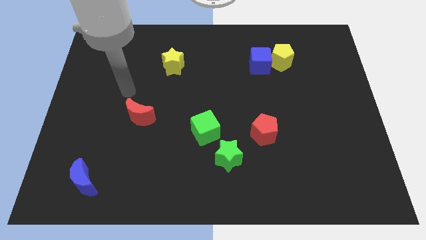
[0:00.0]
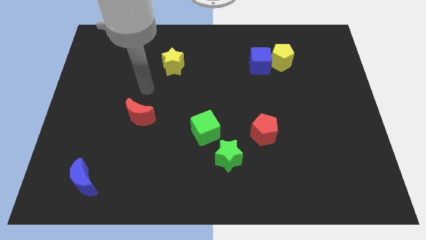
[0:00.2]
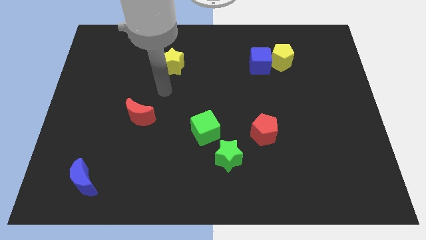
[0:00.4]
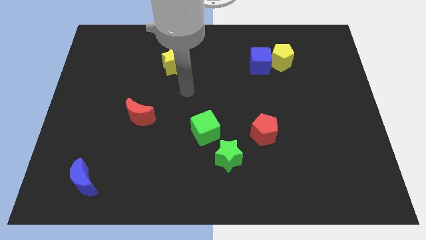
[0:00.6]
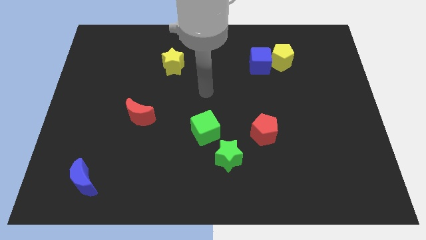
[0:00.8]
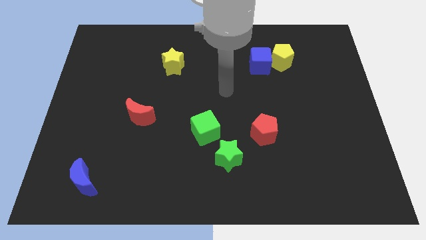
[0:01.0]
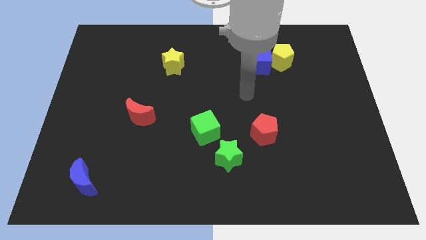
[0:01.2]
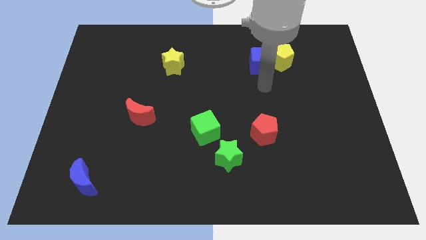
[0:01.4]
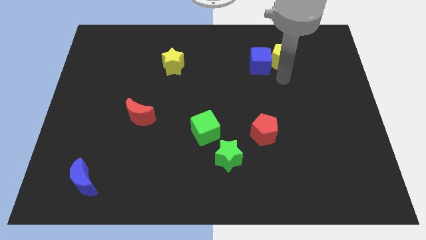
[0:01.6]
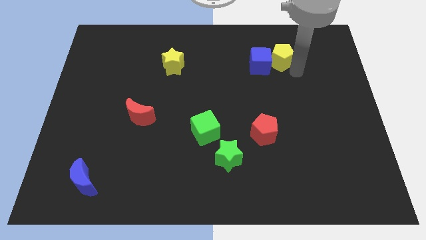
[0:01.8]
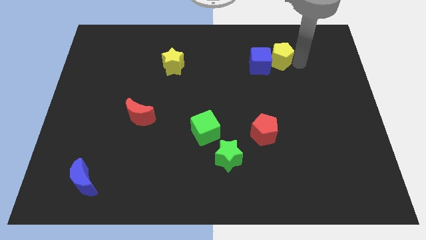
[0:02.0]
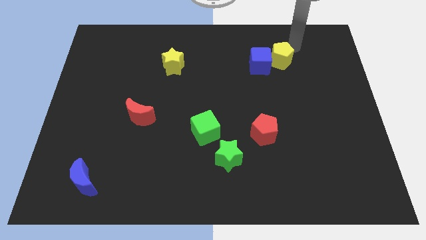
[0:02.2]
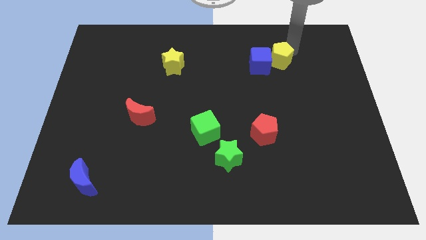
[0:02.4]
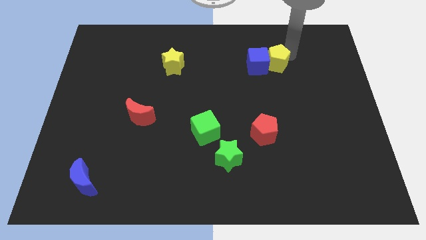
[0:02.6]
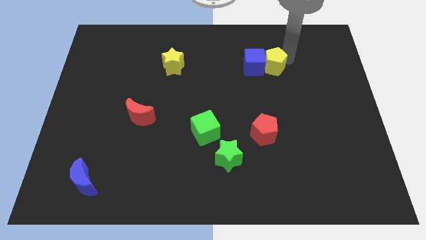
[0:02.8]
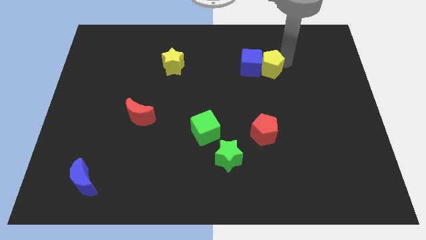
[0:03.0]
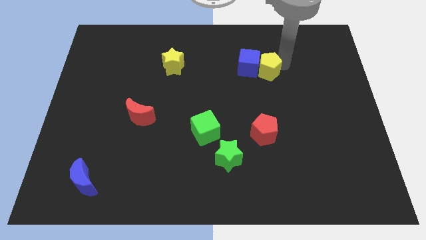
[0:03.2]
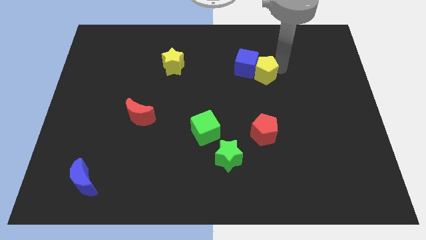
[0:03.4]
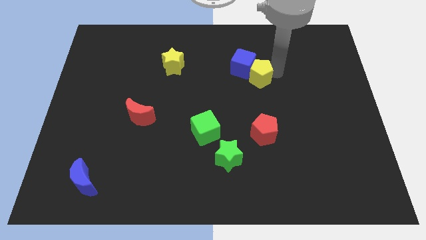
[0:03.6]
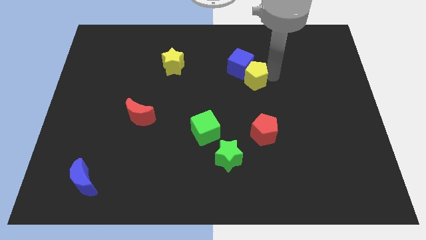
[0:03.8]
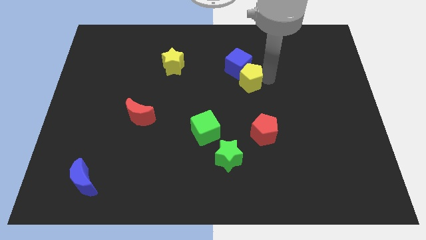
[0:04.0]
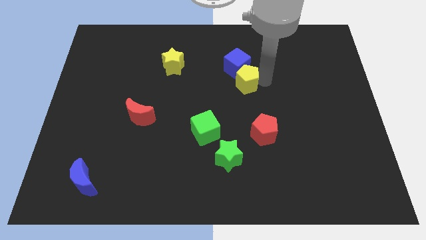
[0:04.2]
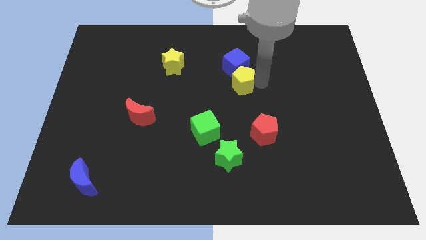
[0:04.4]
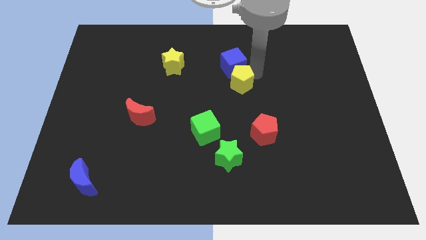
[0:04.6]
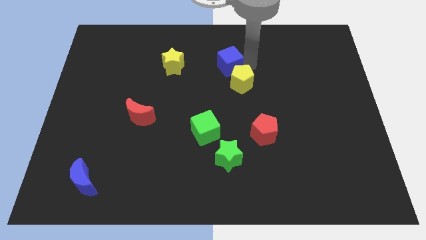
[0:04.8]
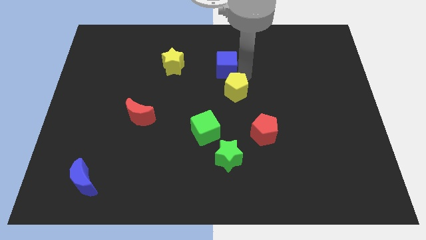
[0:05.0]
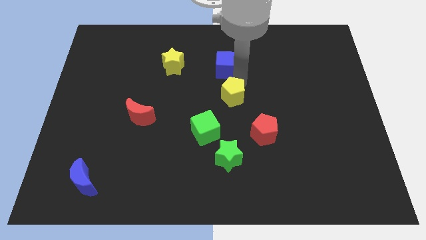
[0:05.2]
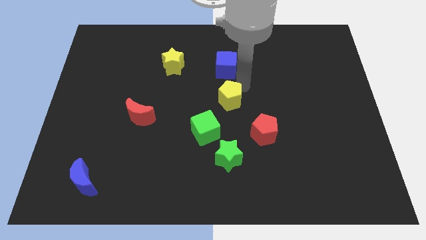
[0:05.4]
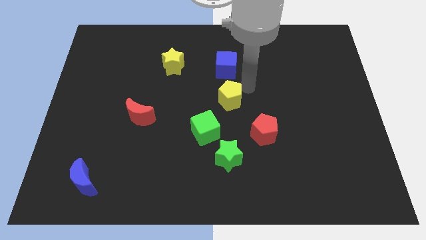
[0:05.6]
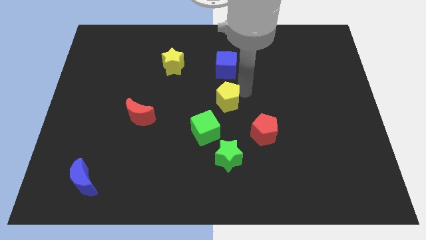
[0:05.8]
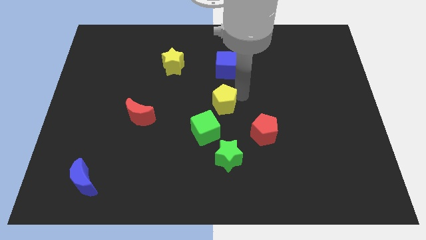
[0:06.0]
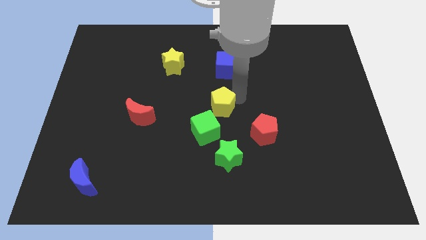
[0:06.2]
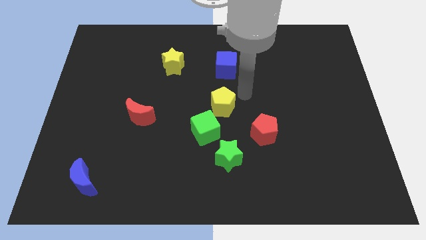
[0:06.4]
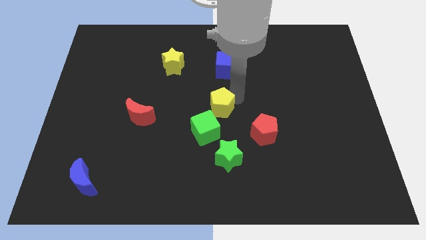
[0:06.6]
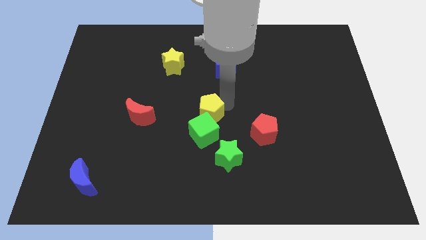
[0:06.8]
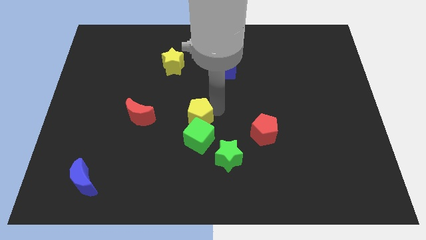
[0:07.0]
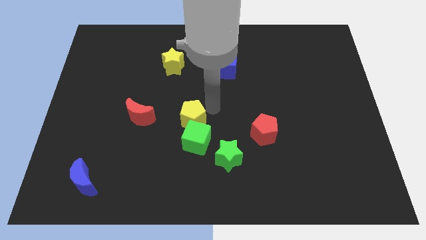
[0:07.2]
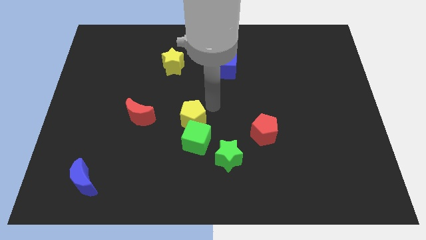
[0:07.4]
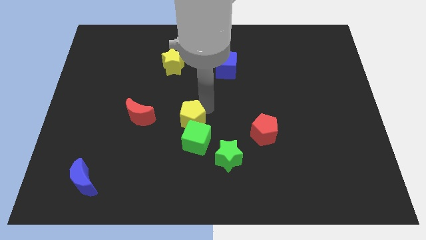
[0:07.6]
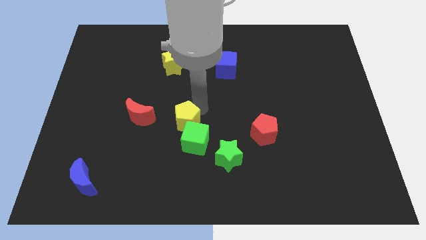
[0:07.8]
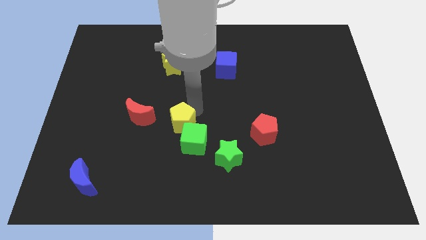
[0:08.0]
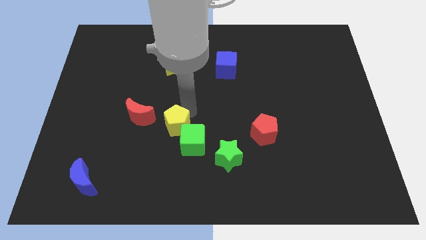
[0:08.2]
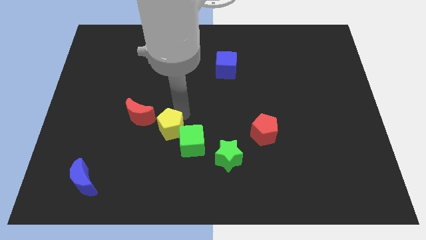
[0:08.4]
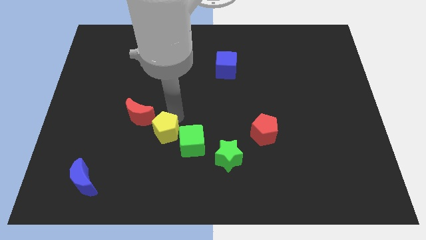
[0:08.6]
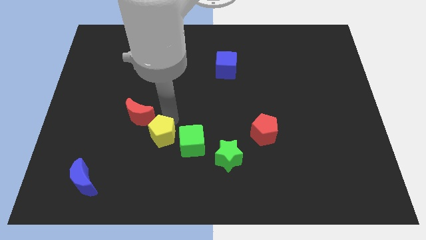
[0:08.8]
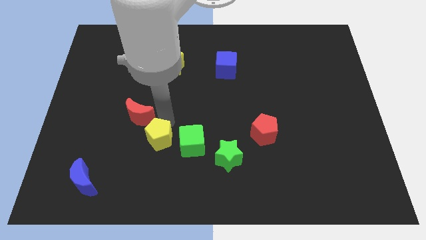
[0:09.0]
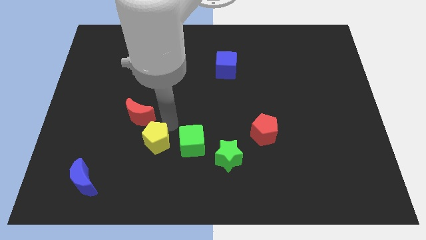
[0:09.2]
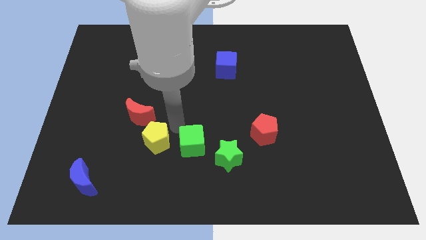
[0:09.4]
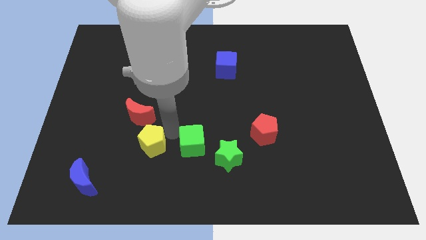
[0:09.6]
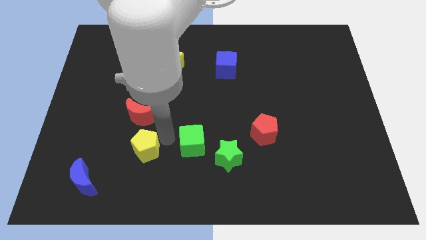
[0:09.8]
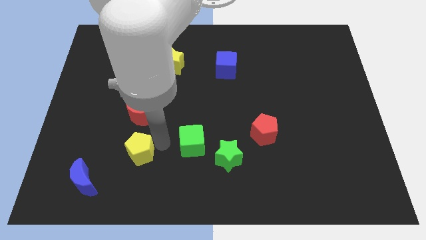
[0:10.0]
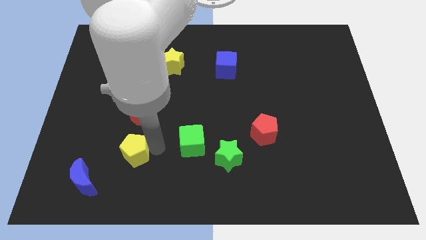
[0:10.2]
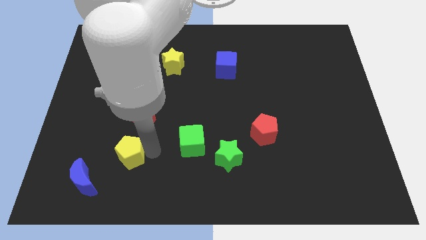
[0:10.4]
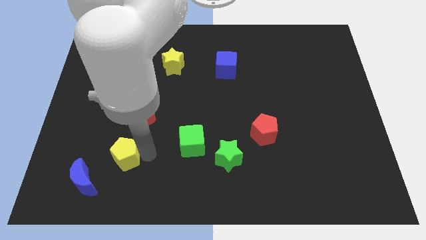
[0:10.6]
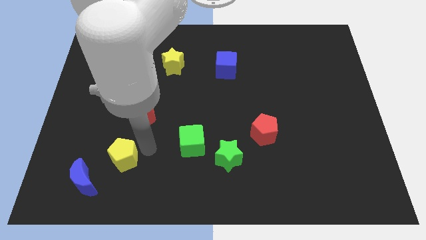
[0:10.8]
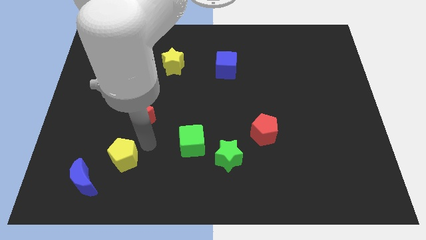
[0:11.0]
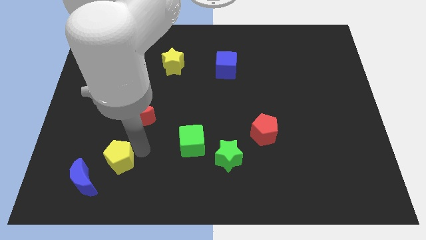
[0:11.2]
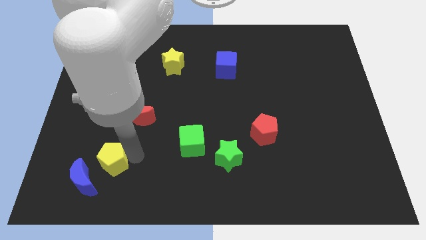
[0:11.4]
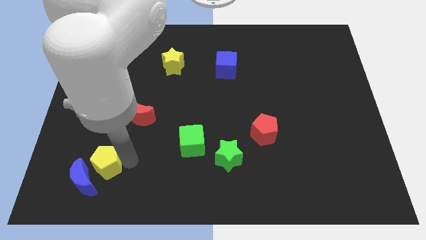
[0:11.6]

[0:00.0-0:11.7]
put the yellow pentagon next to the blue moon

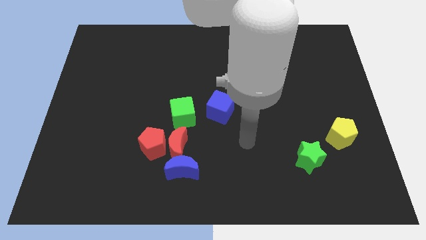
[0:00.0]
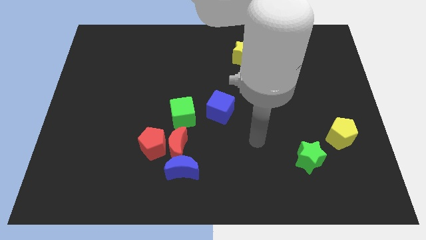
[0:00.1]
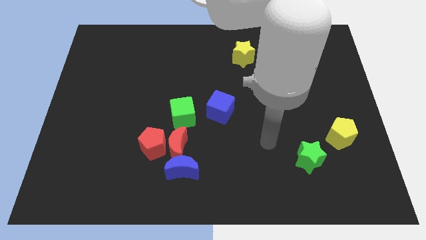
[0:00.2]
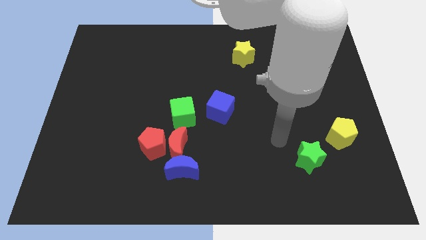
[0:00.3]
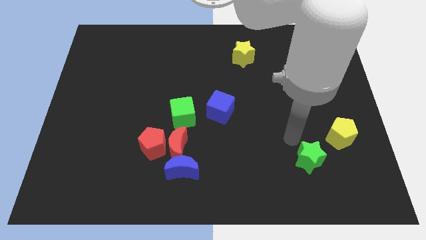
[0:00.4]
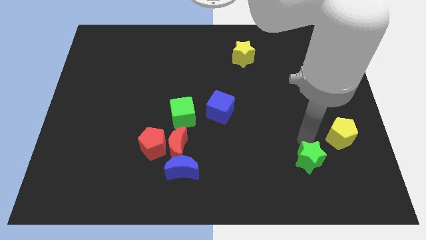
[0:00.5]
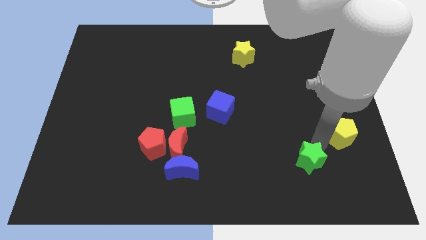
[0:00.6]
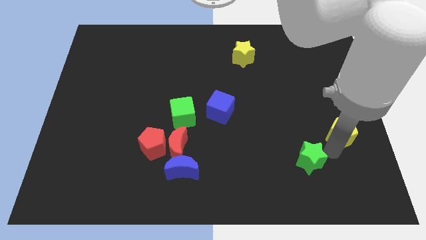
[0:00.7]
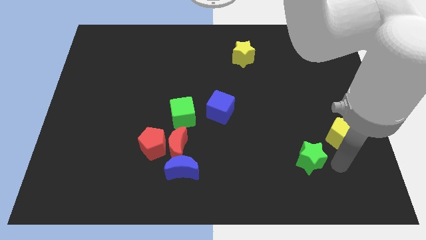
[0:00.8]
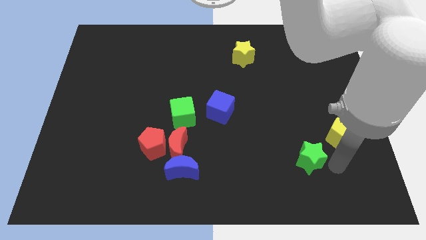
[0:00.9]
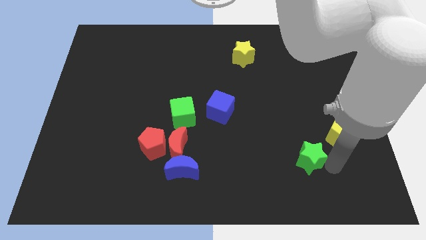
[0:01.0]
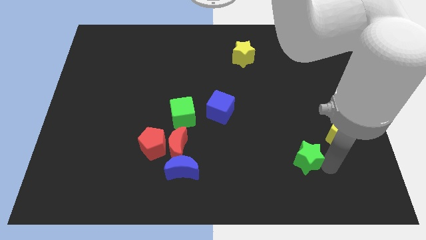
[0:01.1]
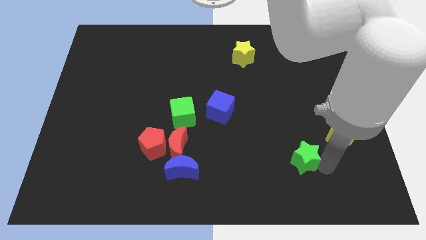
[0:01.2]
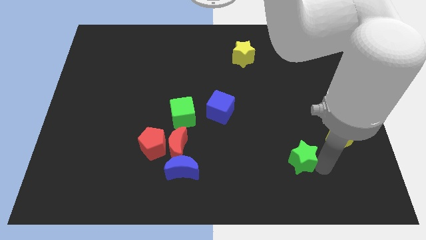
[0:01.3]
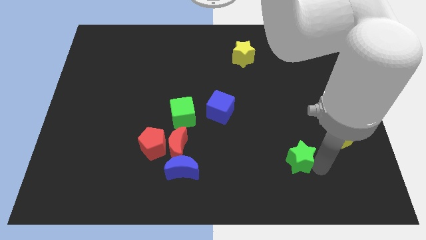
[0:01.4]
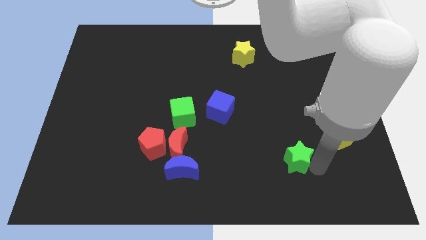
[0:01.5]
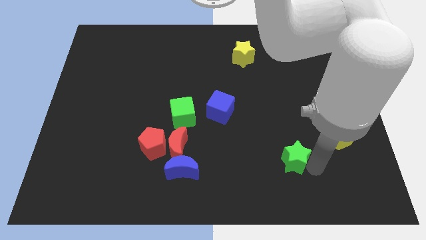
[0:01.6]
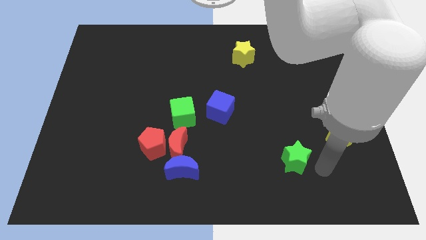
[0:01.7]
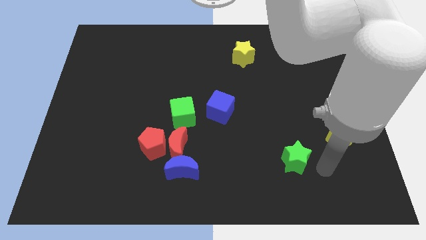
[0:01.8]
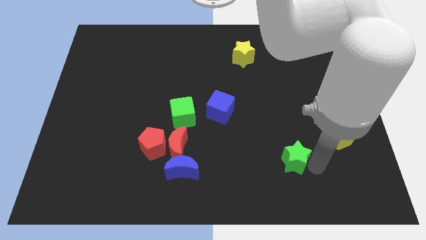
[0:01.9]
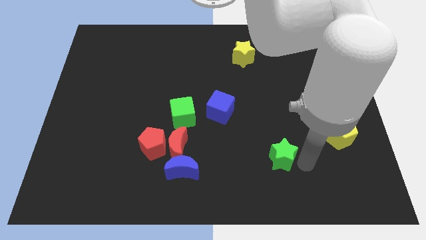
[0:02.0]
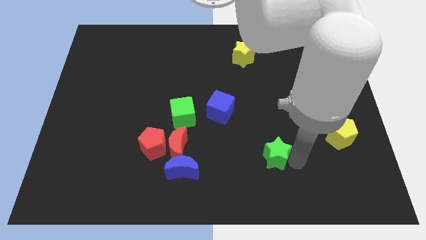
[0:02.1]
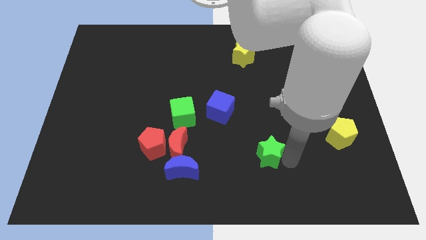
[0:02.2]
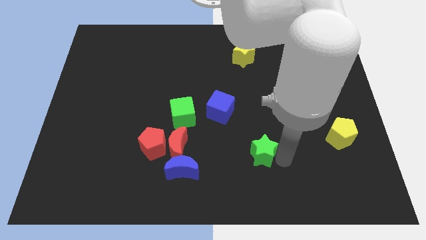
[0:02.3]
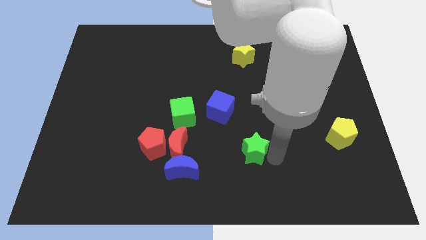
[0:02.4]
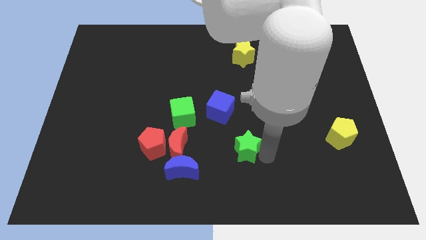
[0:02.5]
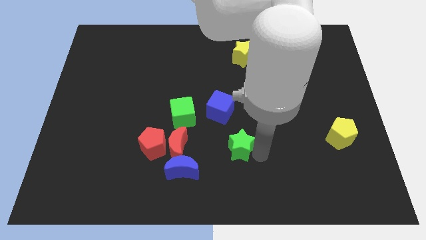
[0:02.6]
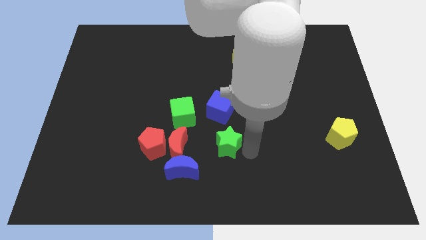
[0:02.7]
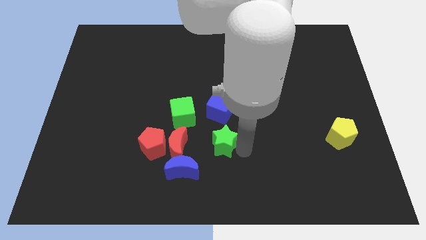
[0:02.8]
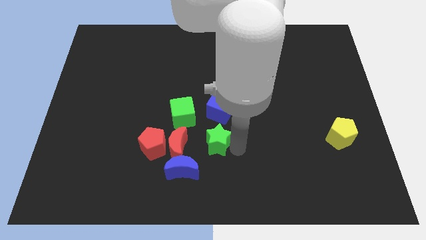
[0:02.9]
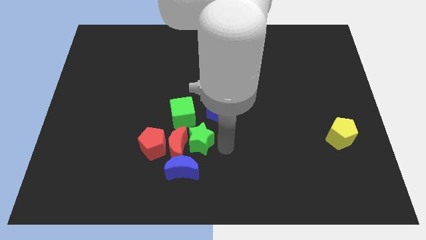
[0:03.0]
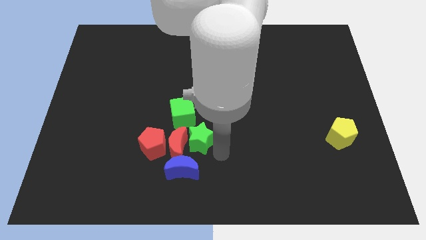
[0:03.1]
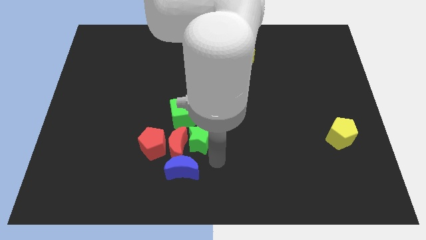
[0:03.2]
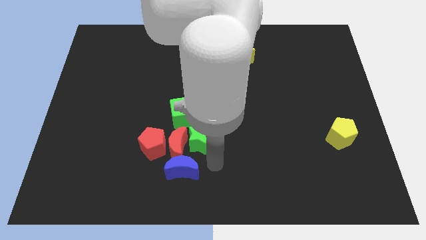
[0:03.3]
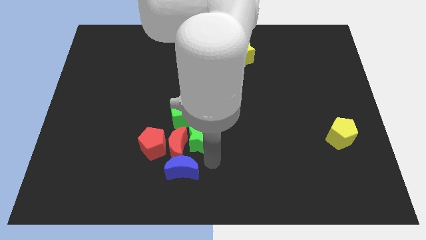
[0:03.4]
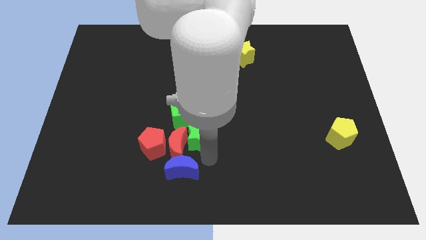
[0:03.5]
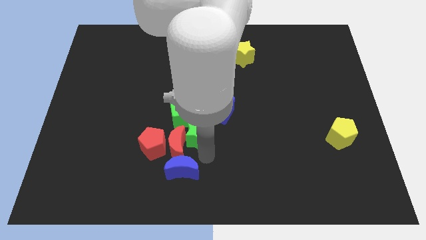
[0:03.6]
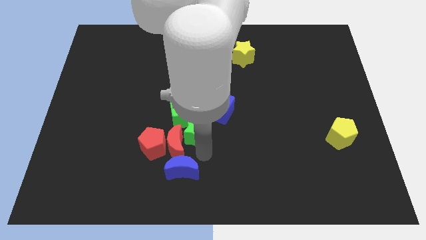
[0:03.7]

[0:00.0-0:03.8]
move the green star next to the green cube
